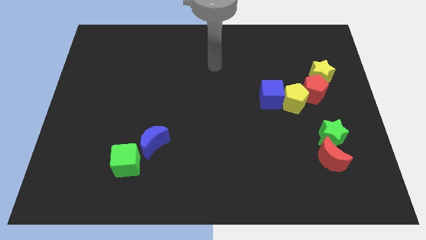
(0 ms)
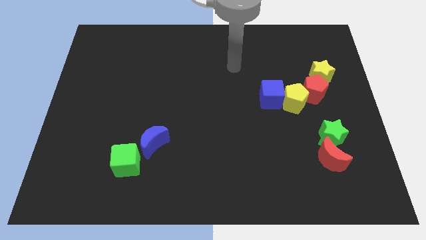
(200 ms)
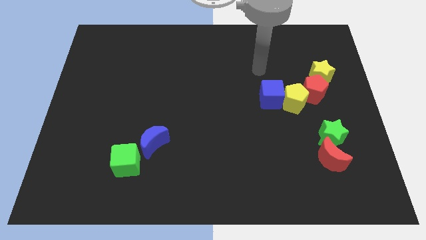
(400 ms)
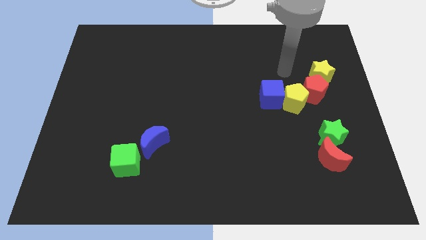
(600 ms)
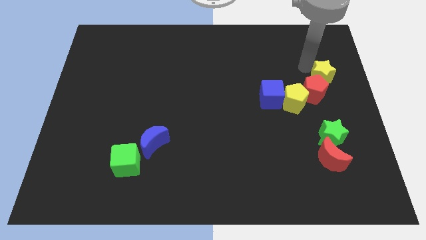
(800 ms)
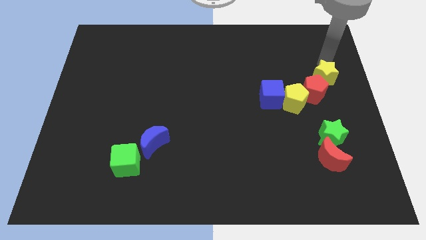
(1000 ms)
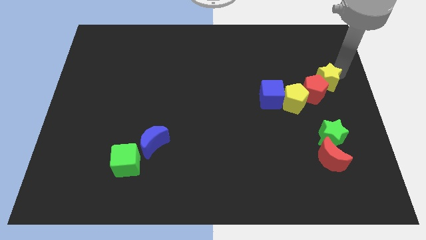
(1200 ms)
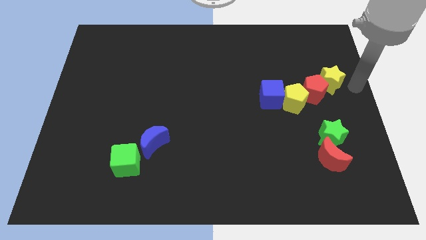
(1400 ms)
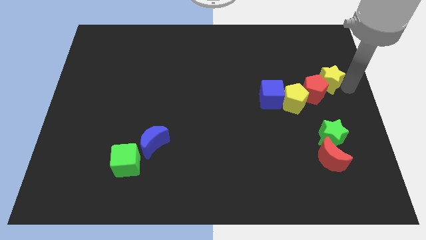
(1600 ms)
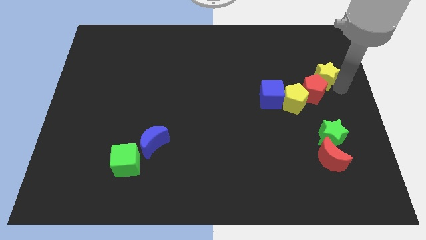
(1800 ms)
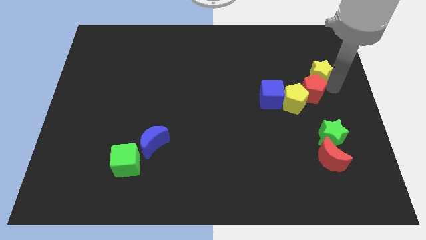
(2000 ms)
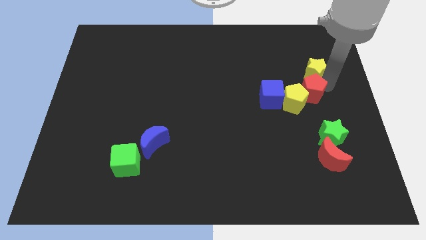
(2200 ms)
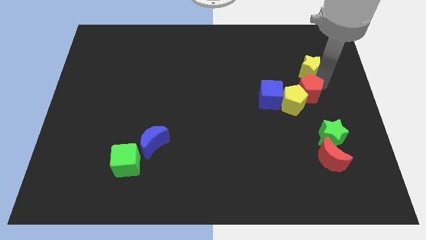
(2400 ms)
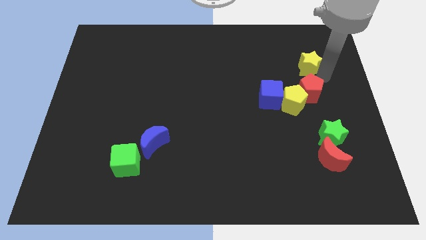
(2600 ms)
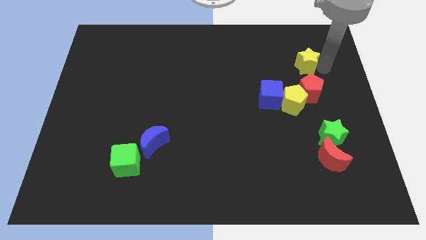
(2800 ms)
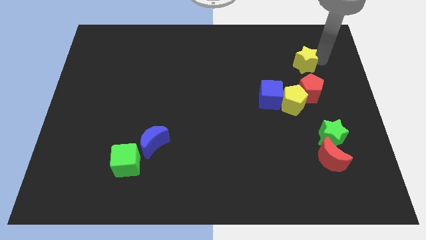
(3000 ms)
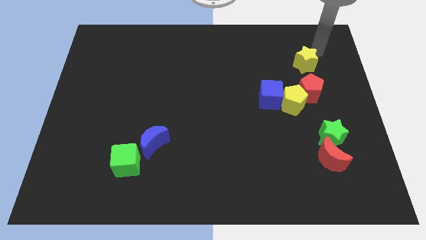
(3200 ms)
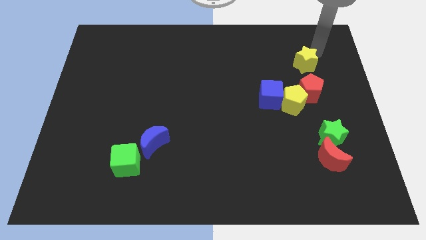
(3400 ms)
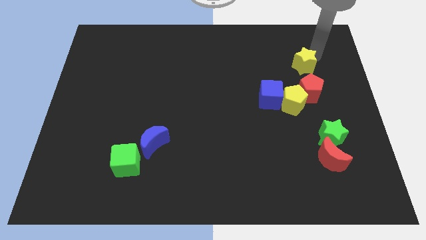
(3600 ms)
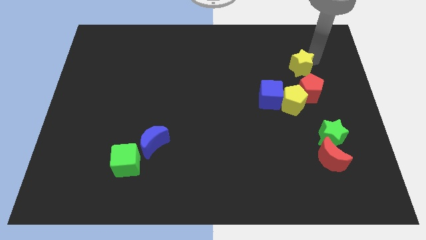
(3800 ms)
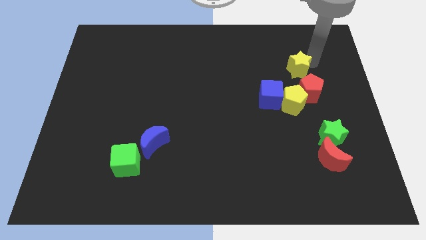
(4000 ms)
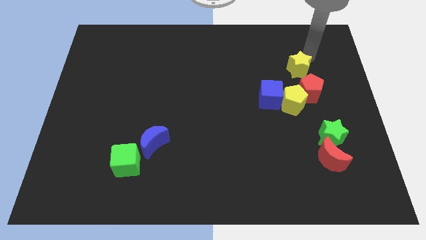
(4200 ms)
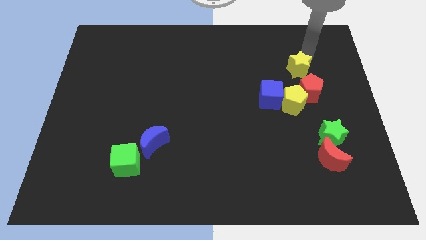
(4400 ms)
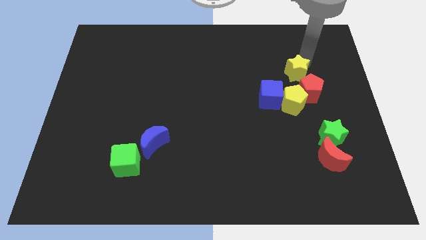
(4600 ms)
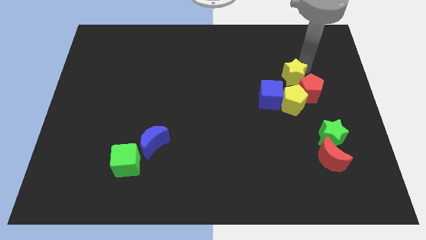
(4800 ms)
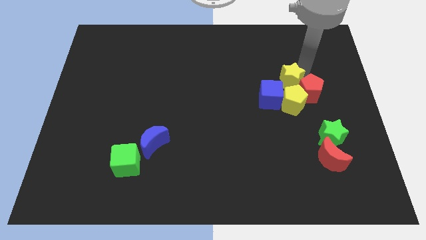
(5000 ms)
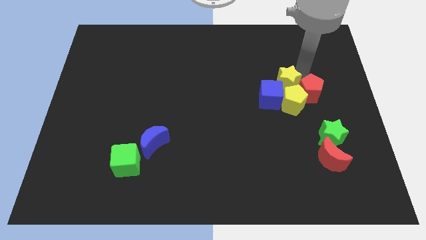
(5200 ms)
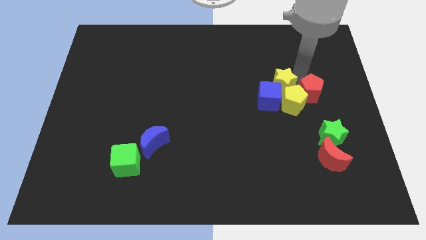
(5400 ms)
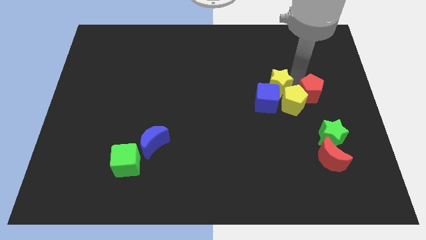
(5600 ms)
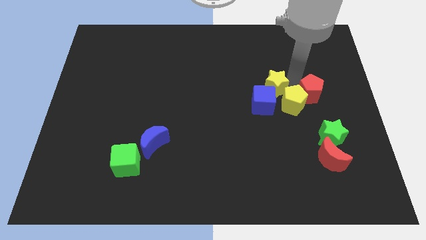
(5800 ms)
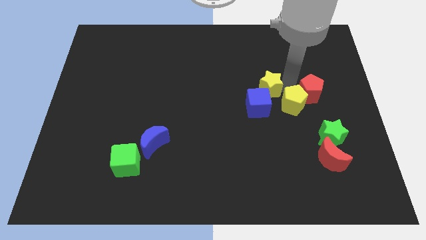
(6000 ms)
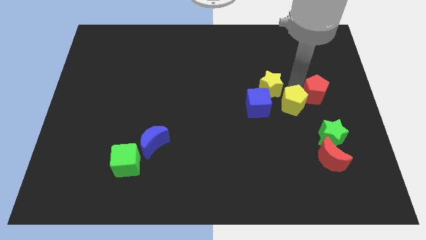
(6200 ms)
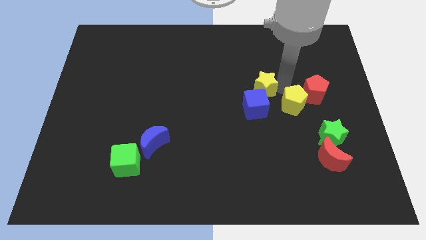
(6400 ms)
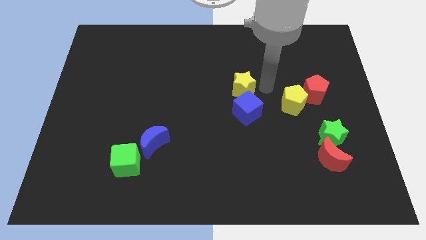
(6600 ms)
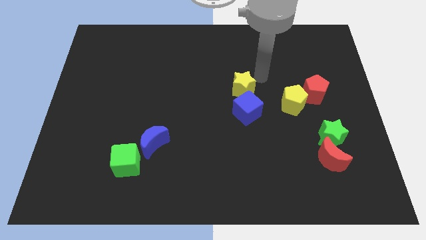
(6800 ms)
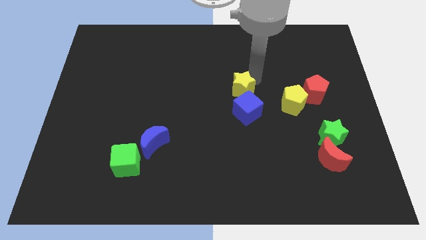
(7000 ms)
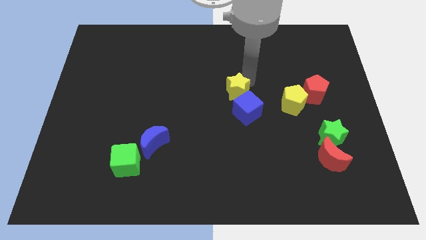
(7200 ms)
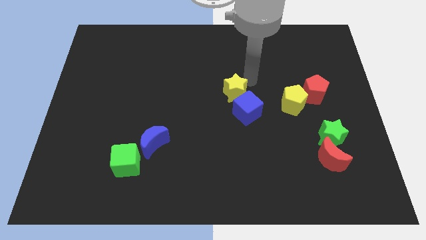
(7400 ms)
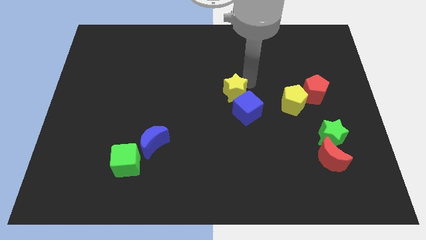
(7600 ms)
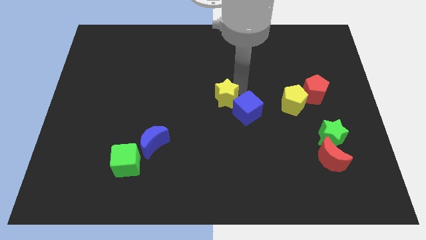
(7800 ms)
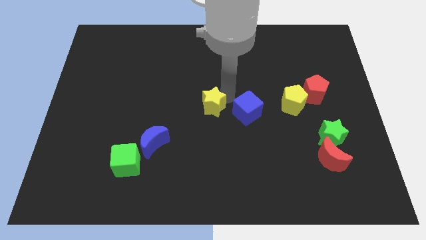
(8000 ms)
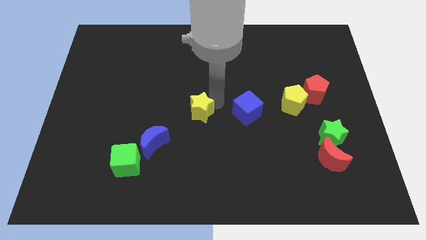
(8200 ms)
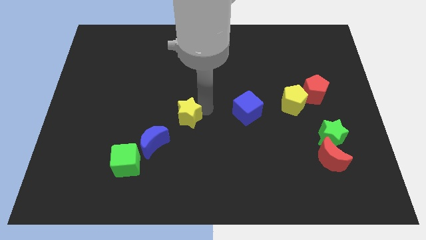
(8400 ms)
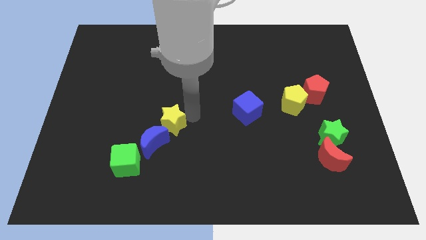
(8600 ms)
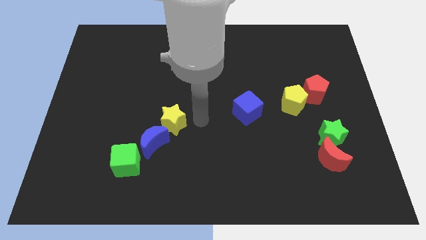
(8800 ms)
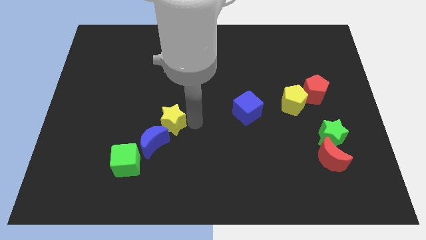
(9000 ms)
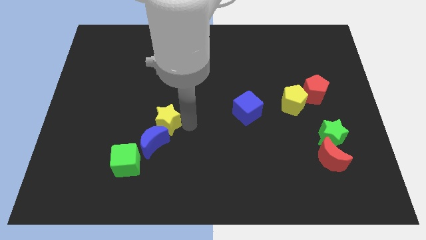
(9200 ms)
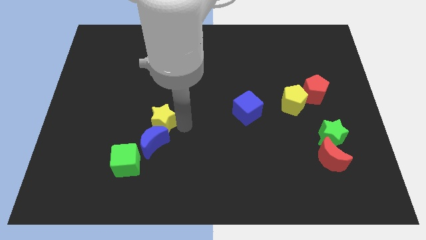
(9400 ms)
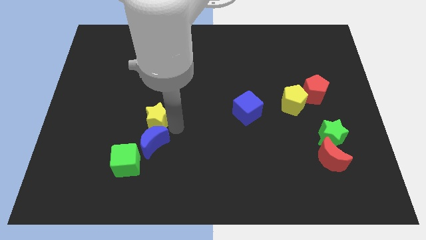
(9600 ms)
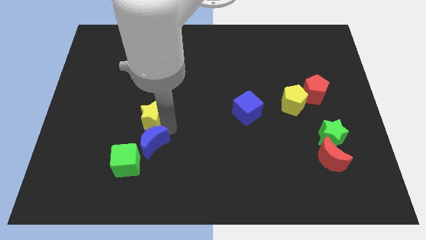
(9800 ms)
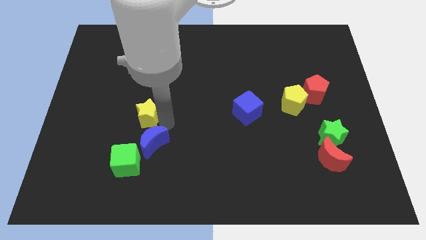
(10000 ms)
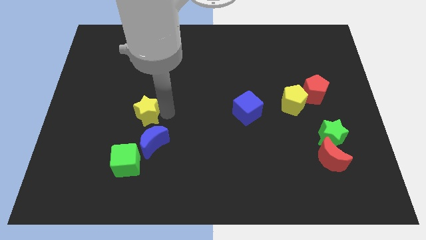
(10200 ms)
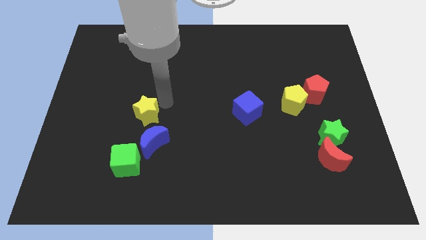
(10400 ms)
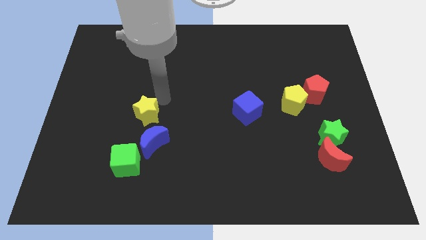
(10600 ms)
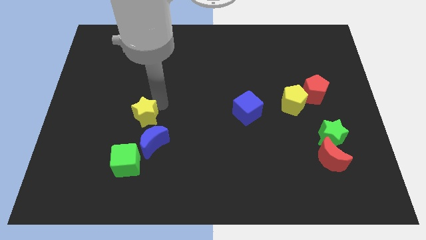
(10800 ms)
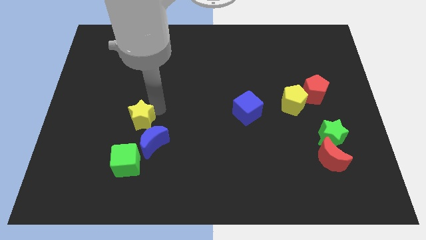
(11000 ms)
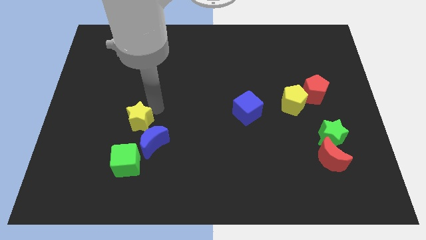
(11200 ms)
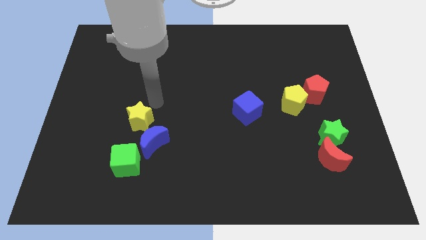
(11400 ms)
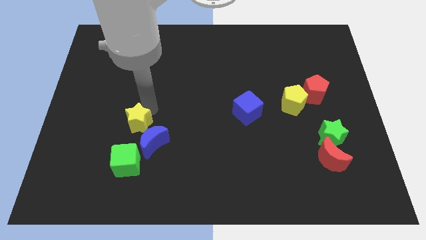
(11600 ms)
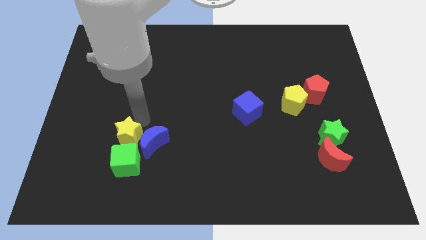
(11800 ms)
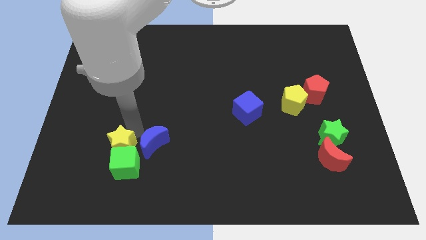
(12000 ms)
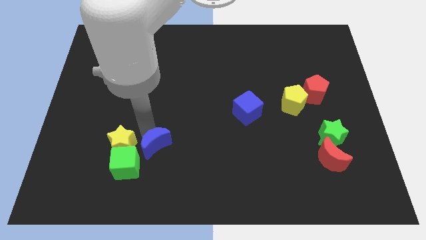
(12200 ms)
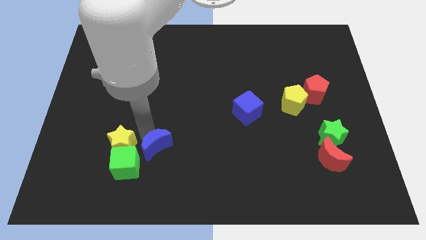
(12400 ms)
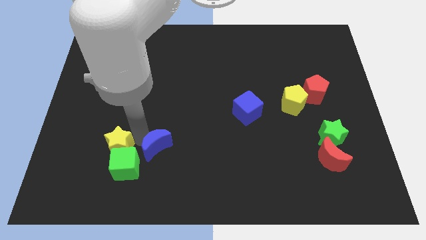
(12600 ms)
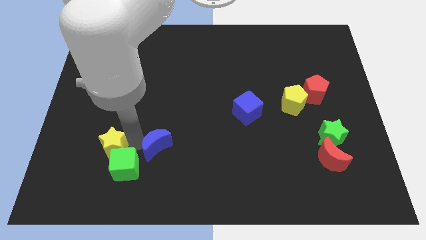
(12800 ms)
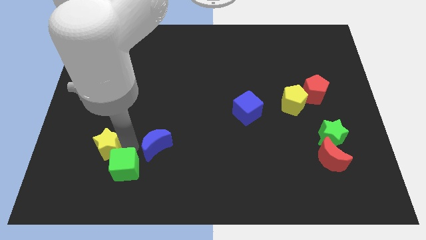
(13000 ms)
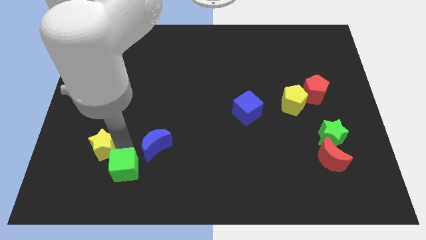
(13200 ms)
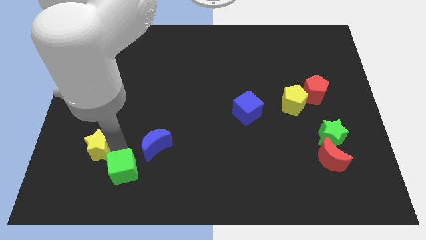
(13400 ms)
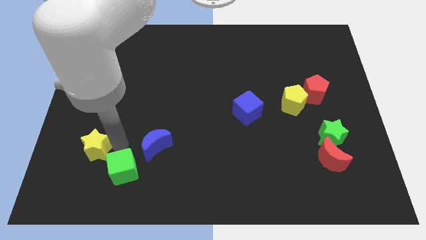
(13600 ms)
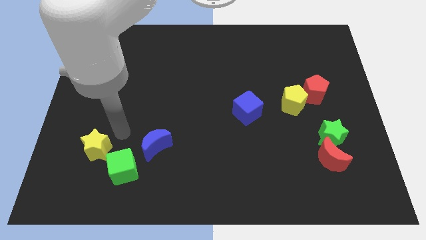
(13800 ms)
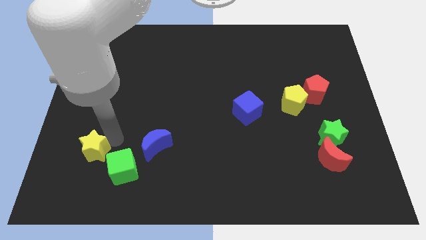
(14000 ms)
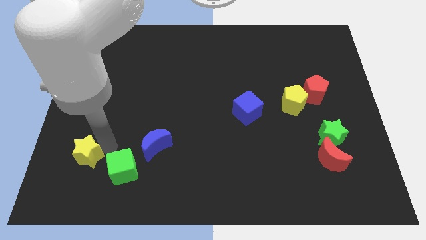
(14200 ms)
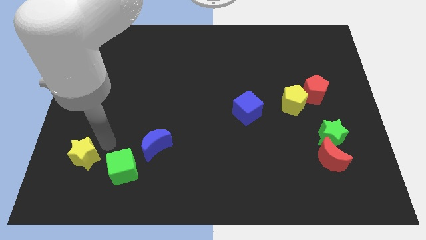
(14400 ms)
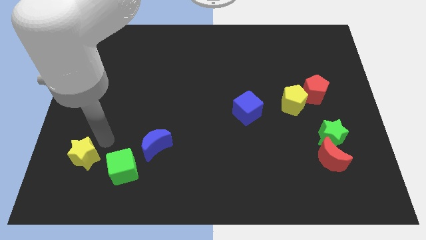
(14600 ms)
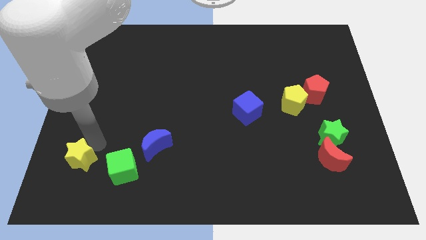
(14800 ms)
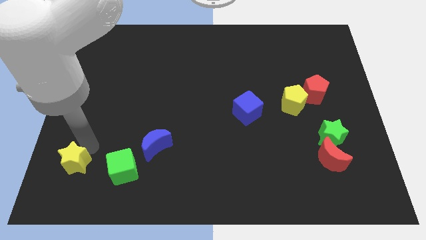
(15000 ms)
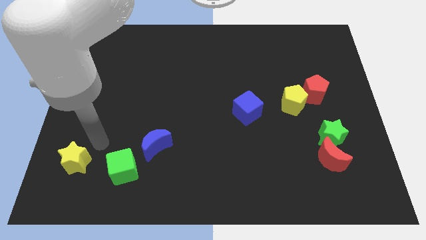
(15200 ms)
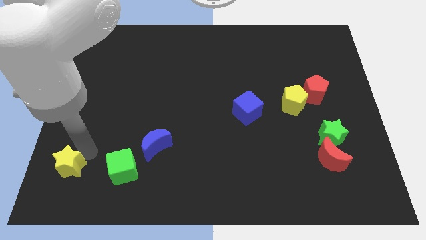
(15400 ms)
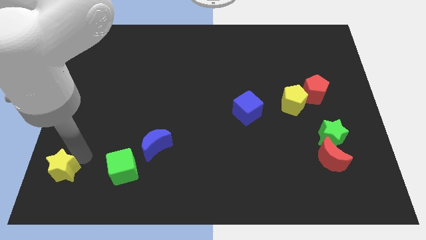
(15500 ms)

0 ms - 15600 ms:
put the yellow star to the bottom left of the board
